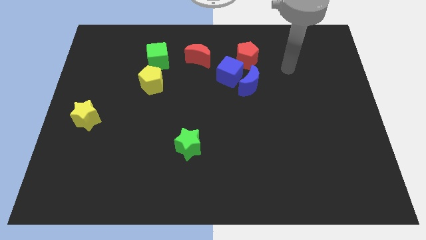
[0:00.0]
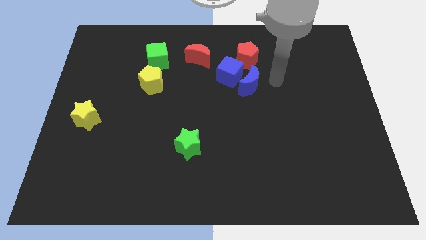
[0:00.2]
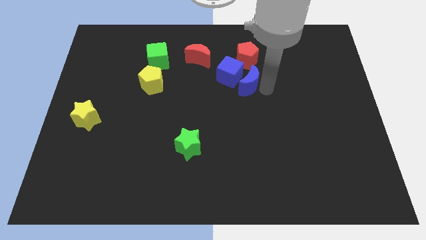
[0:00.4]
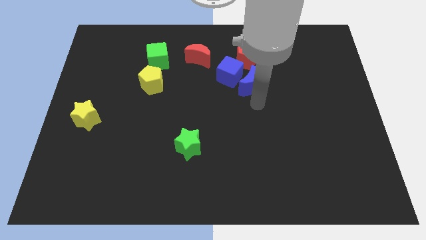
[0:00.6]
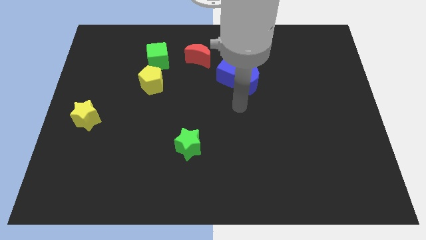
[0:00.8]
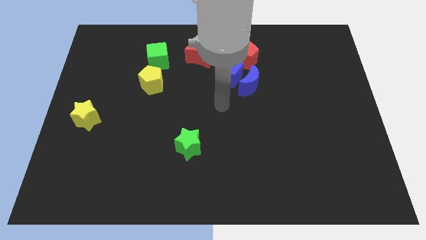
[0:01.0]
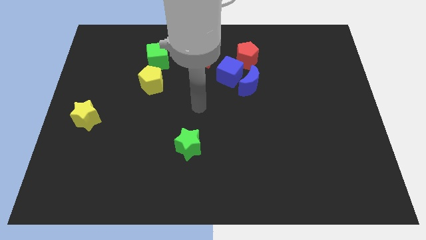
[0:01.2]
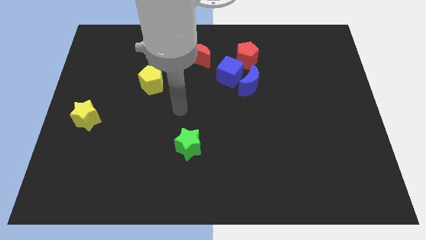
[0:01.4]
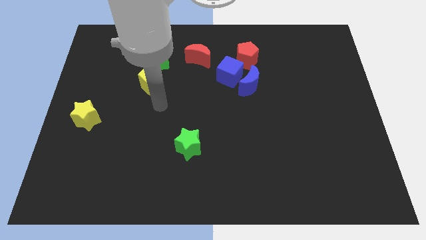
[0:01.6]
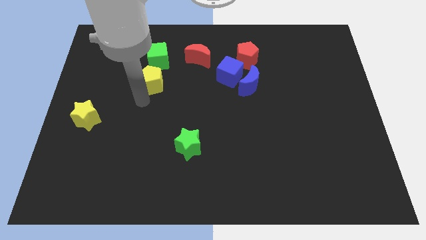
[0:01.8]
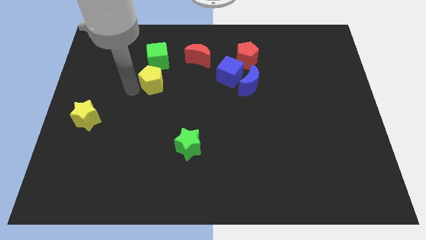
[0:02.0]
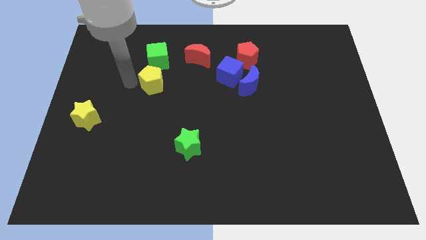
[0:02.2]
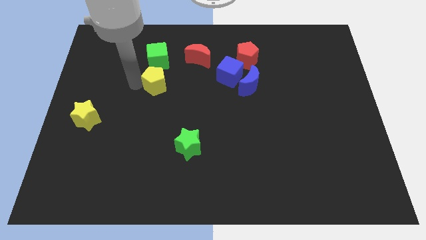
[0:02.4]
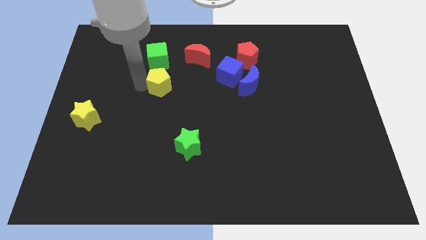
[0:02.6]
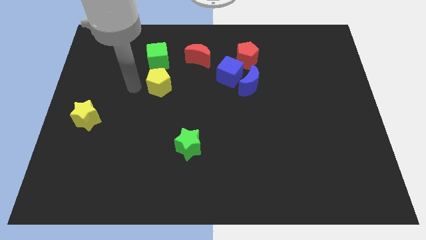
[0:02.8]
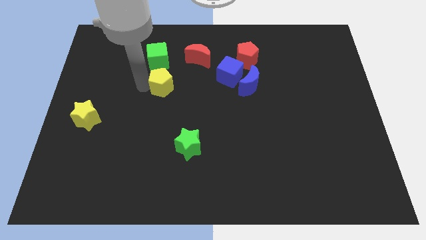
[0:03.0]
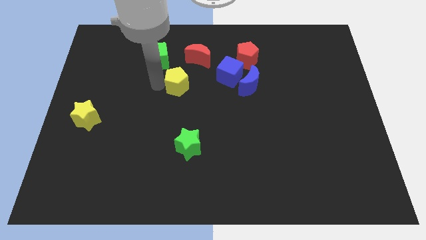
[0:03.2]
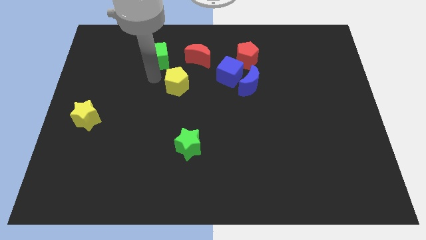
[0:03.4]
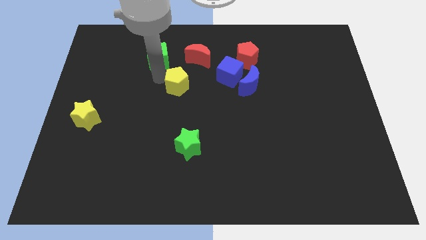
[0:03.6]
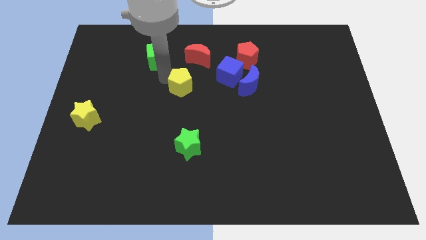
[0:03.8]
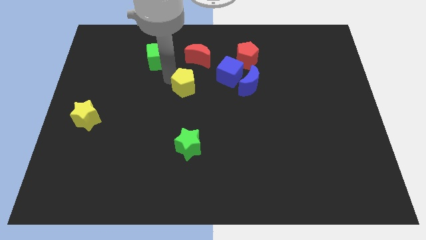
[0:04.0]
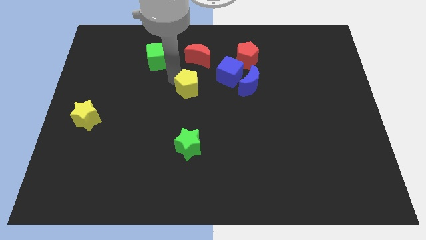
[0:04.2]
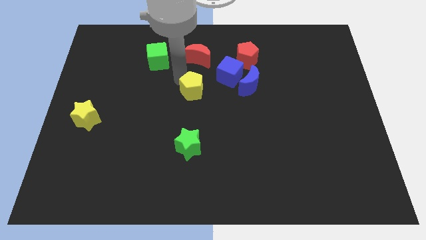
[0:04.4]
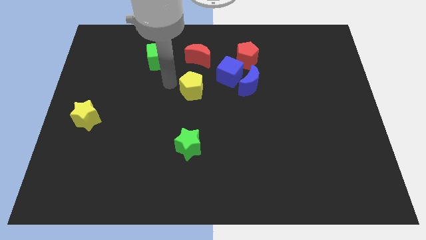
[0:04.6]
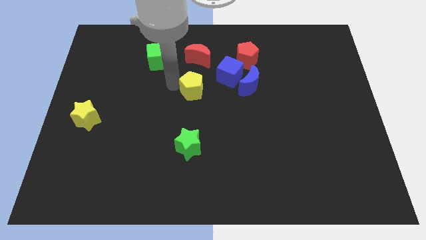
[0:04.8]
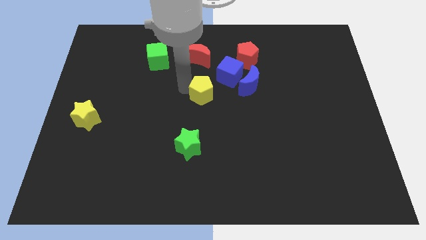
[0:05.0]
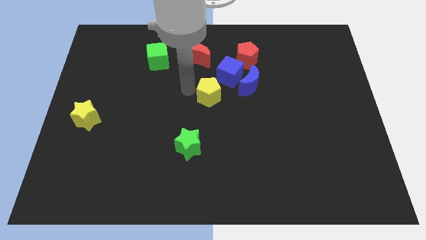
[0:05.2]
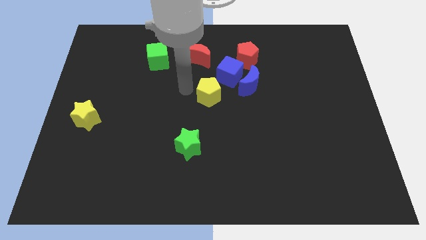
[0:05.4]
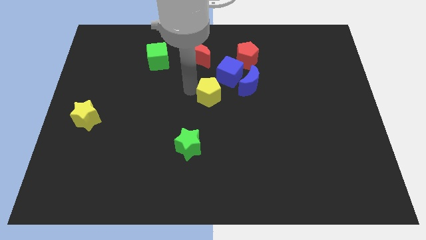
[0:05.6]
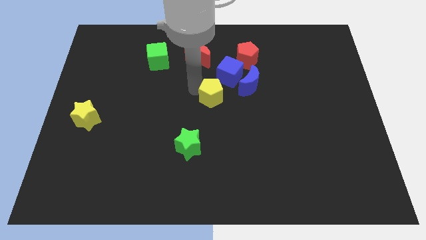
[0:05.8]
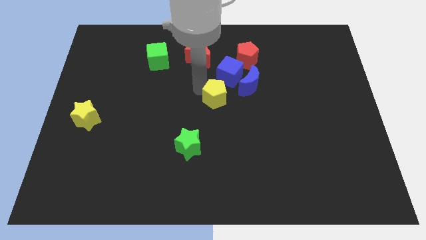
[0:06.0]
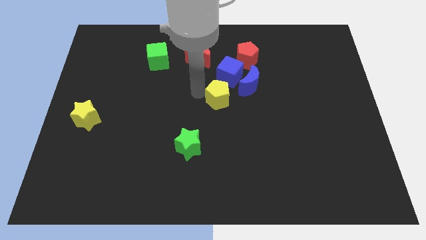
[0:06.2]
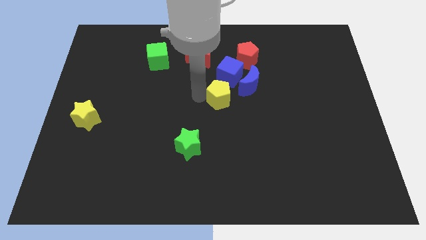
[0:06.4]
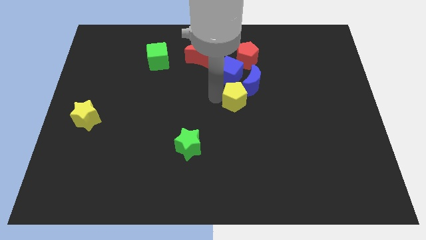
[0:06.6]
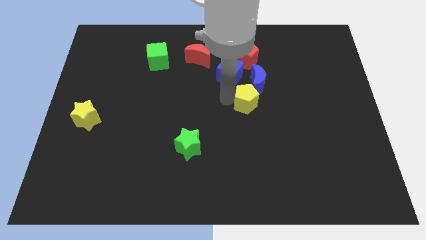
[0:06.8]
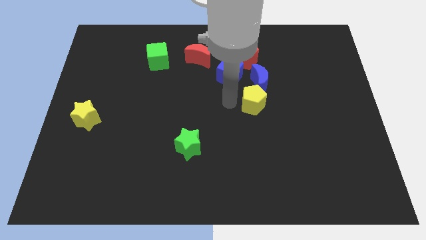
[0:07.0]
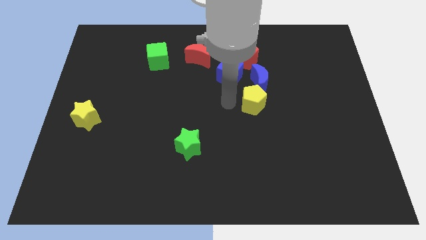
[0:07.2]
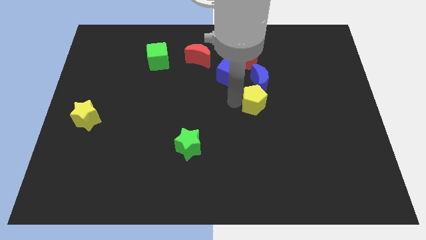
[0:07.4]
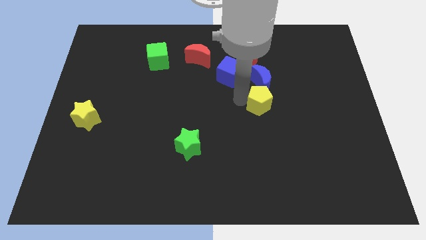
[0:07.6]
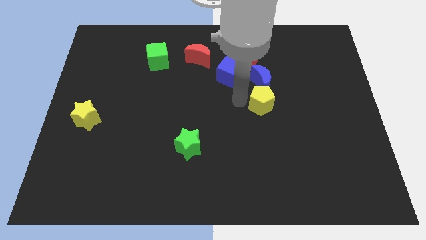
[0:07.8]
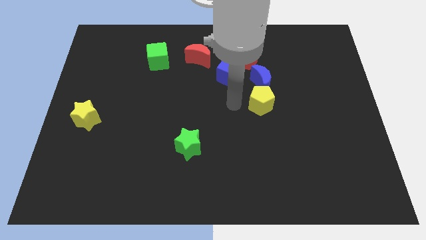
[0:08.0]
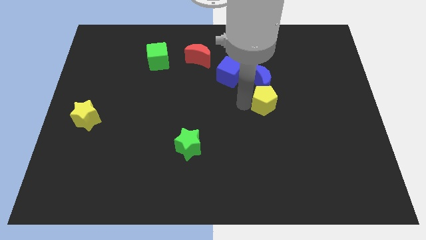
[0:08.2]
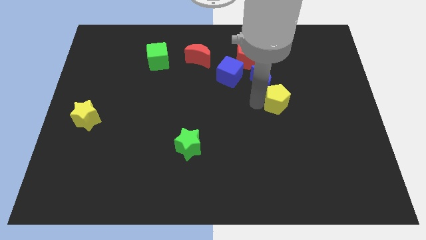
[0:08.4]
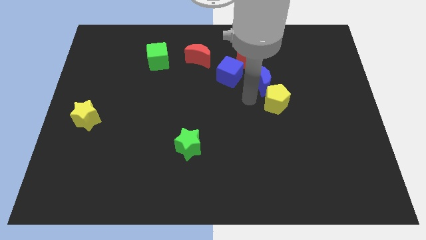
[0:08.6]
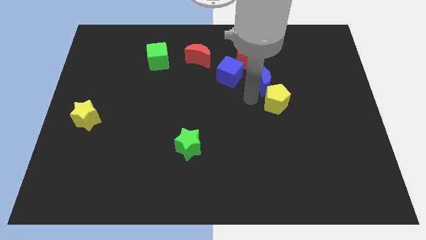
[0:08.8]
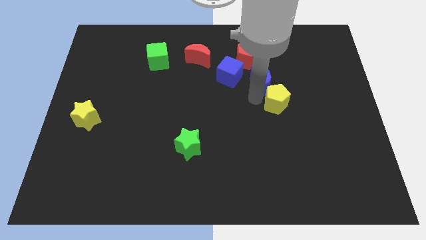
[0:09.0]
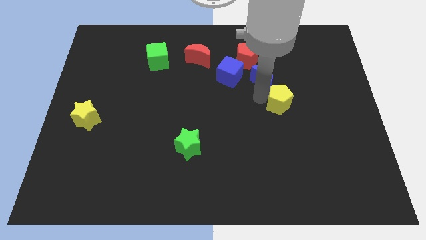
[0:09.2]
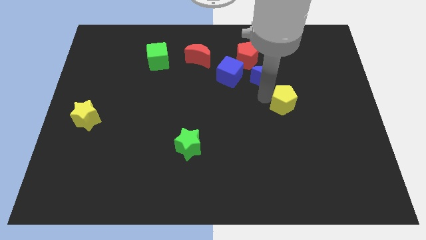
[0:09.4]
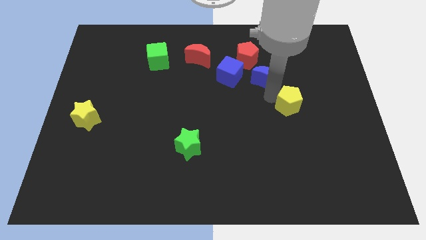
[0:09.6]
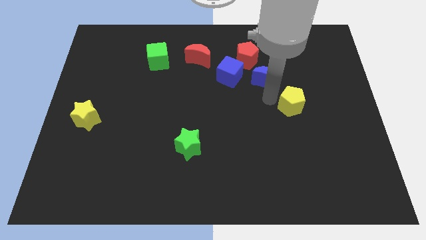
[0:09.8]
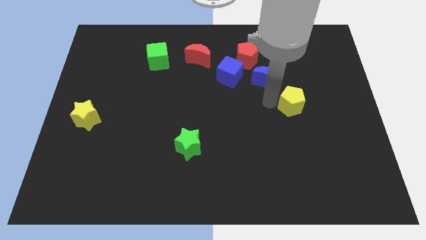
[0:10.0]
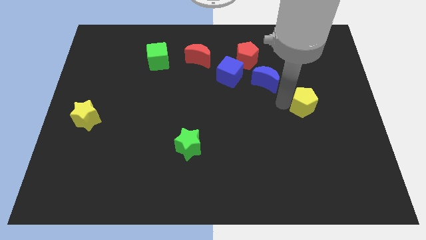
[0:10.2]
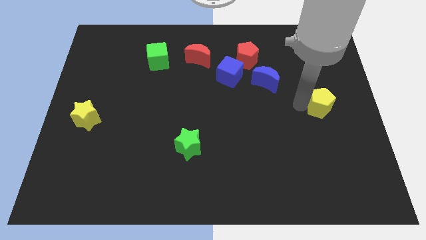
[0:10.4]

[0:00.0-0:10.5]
slide the yellow pentagon to the right side of the board

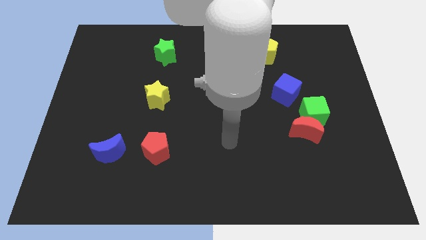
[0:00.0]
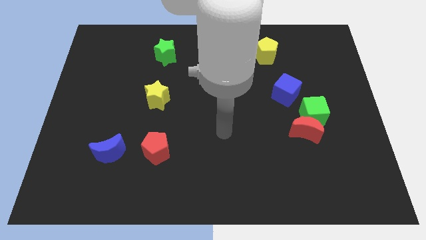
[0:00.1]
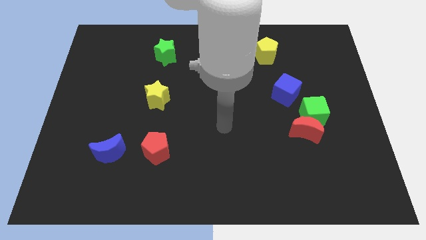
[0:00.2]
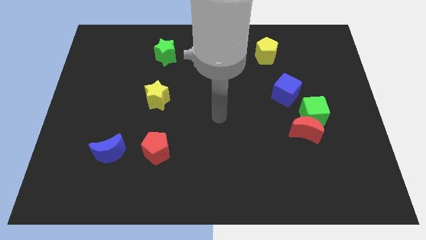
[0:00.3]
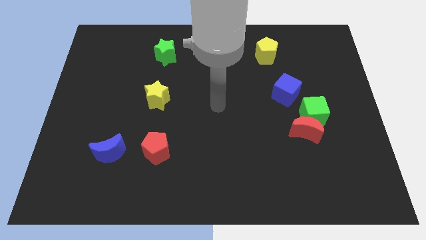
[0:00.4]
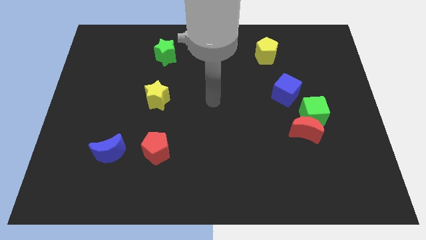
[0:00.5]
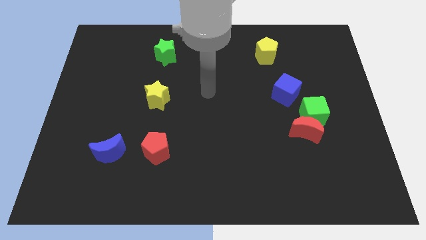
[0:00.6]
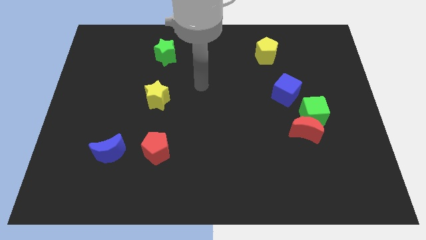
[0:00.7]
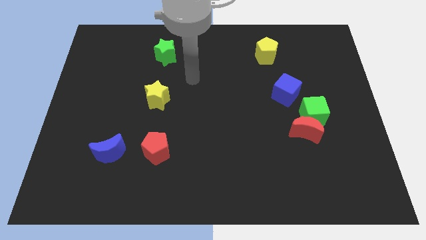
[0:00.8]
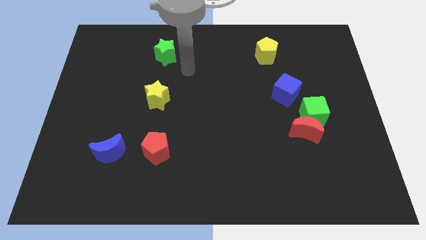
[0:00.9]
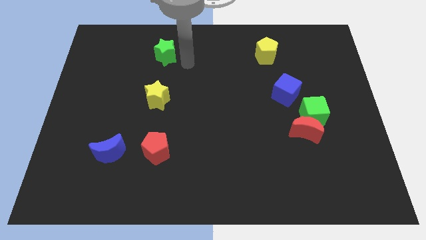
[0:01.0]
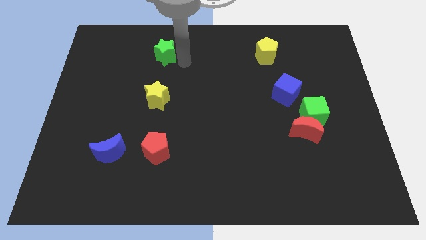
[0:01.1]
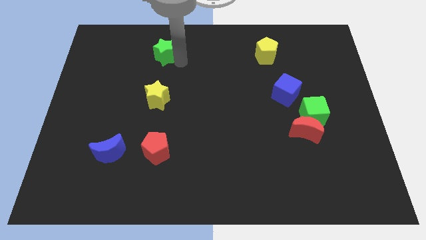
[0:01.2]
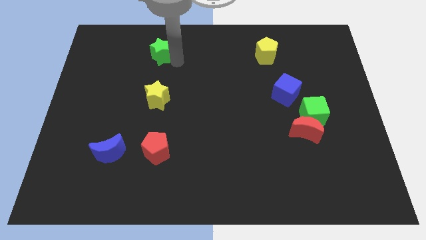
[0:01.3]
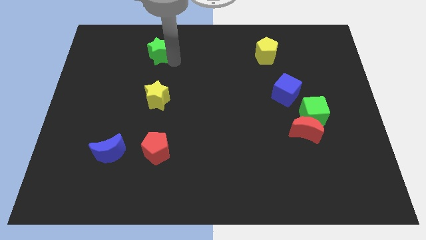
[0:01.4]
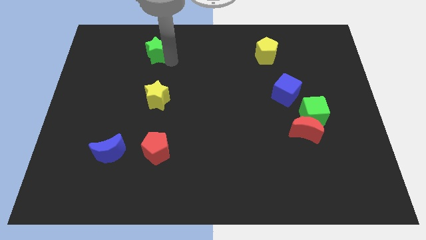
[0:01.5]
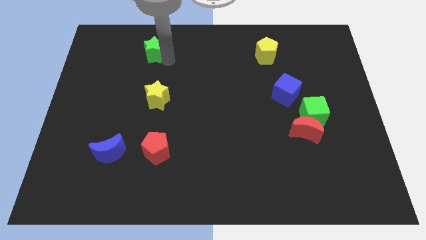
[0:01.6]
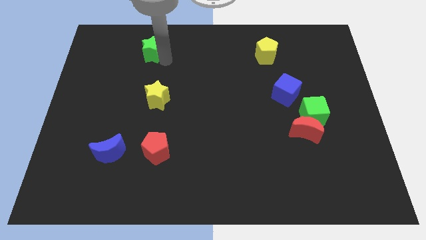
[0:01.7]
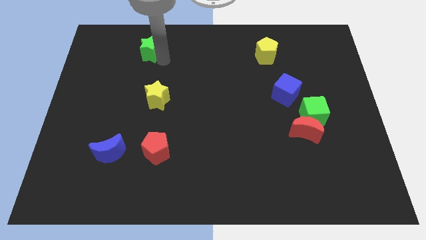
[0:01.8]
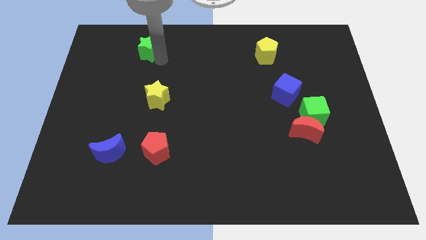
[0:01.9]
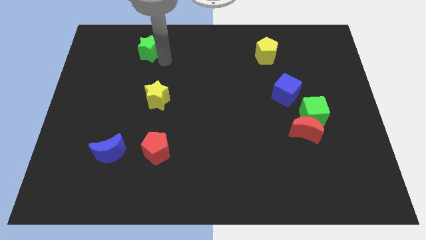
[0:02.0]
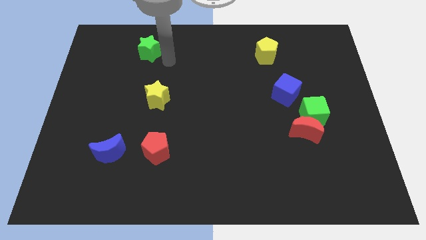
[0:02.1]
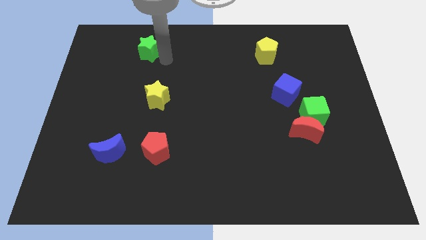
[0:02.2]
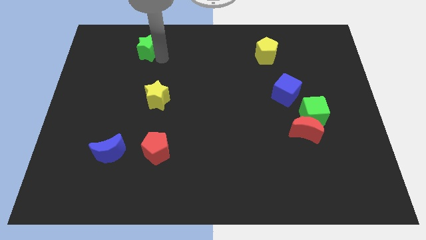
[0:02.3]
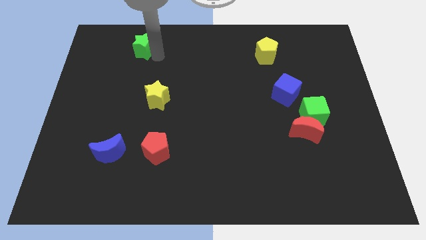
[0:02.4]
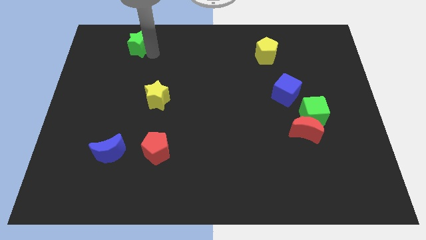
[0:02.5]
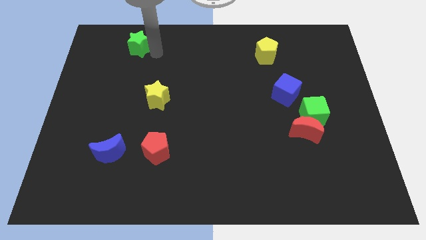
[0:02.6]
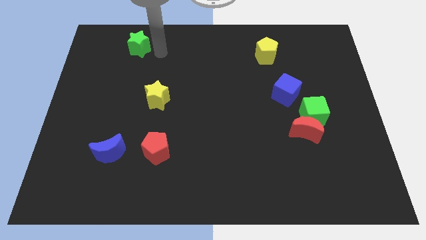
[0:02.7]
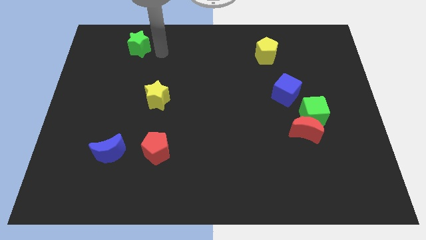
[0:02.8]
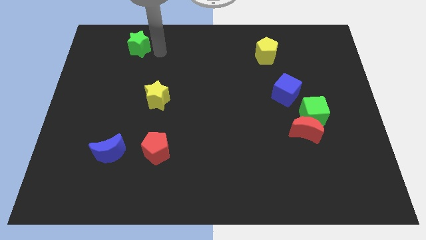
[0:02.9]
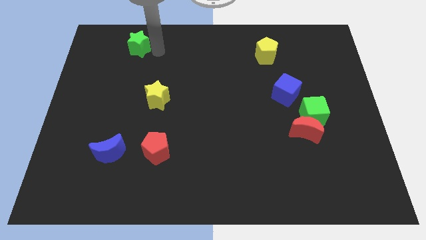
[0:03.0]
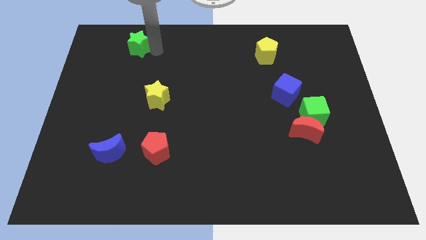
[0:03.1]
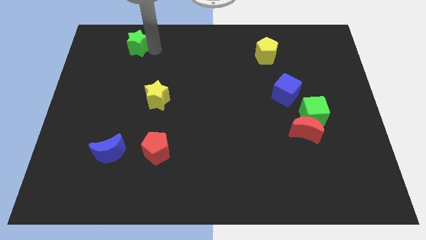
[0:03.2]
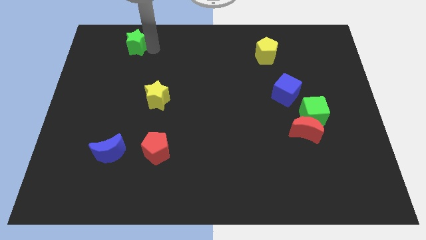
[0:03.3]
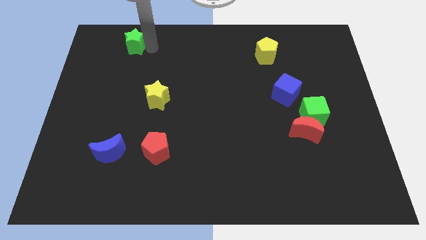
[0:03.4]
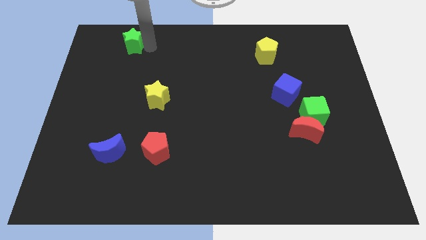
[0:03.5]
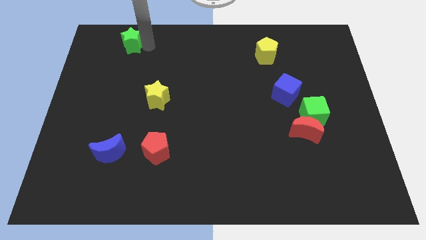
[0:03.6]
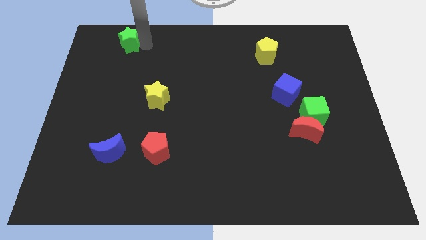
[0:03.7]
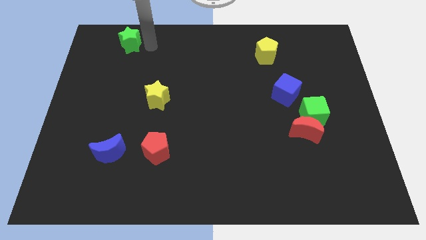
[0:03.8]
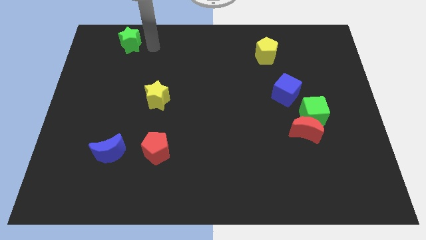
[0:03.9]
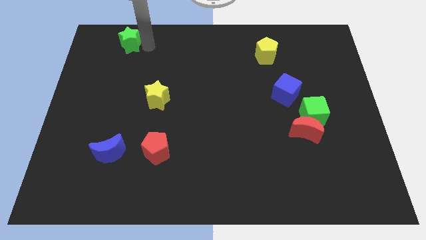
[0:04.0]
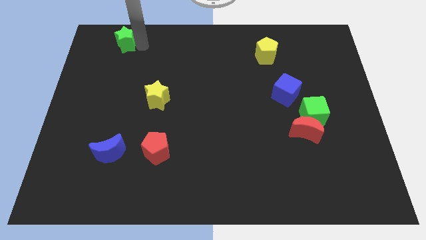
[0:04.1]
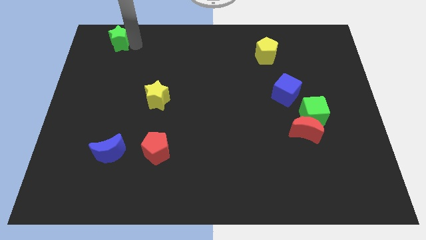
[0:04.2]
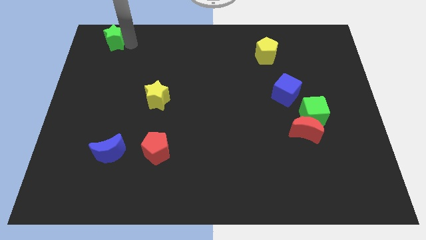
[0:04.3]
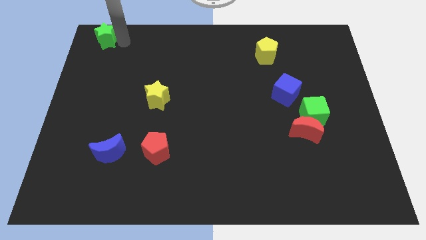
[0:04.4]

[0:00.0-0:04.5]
put the green star to the top left corner
